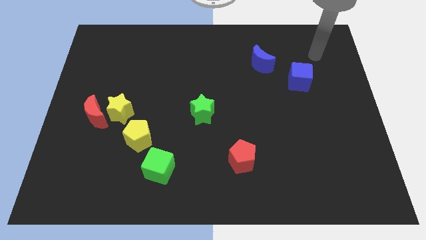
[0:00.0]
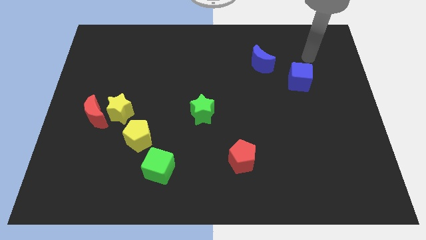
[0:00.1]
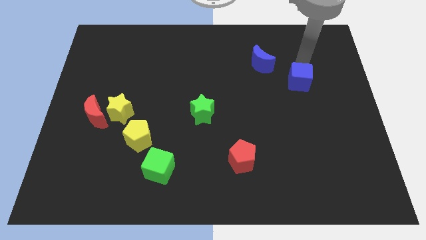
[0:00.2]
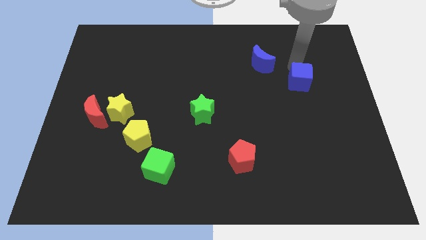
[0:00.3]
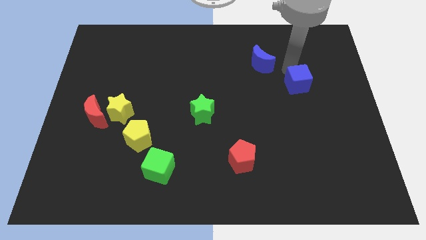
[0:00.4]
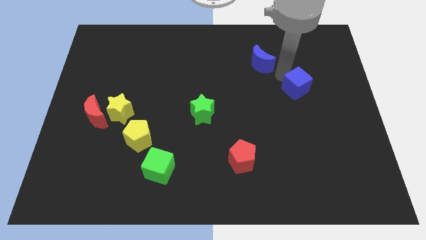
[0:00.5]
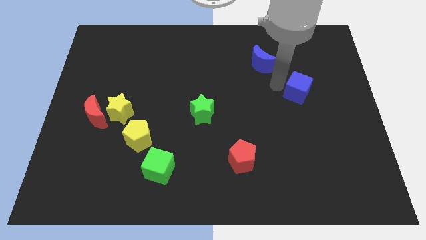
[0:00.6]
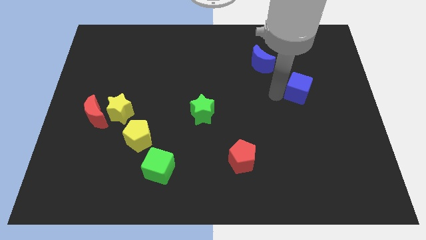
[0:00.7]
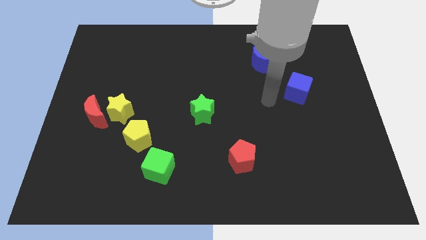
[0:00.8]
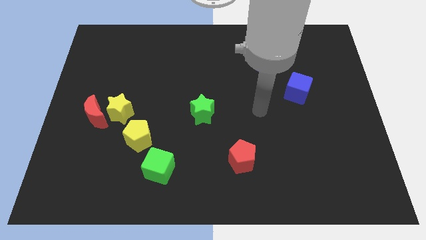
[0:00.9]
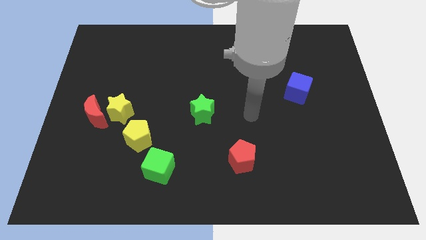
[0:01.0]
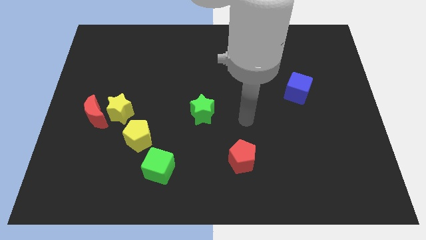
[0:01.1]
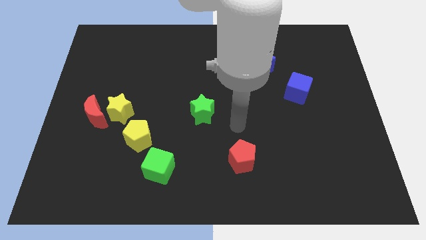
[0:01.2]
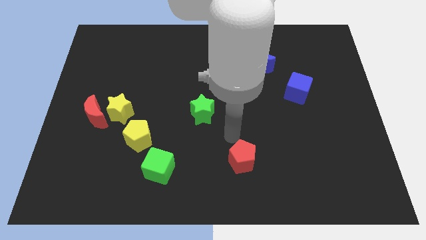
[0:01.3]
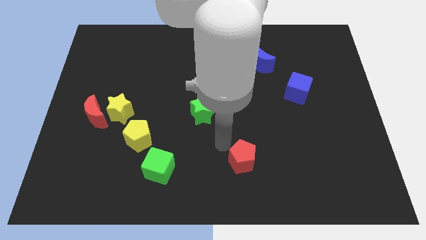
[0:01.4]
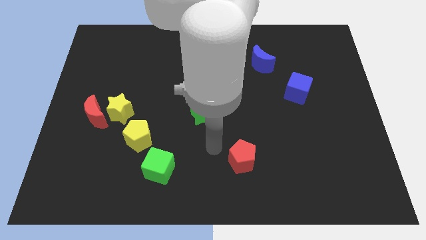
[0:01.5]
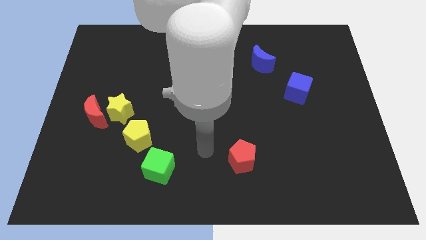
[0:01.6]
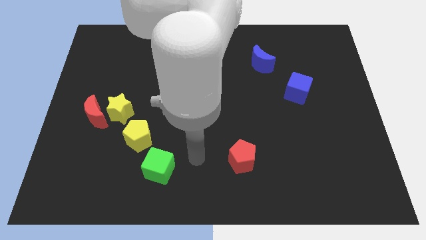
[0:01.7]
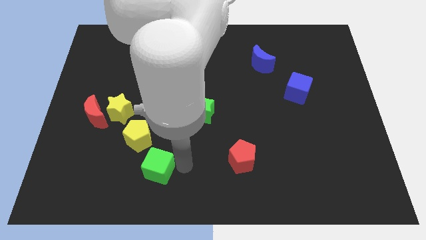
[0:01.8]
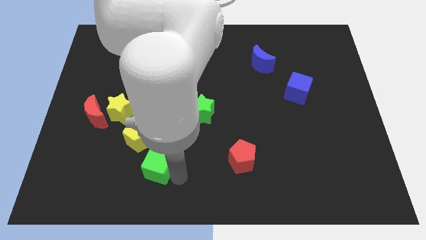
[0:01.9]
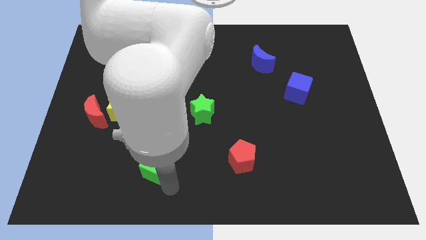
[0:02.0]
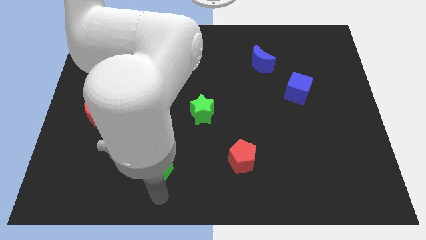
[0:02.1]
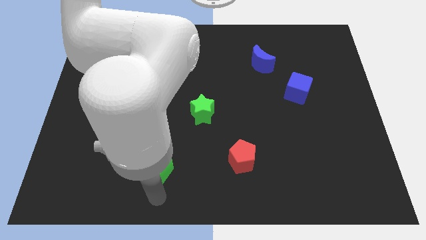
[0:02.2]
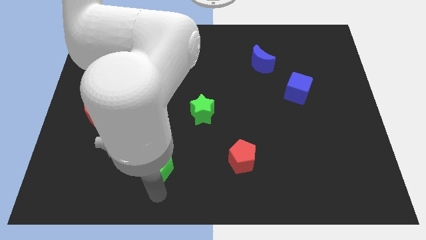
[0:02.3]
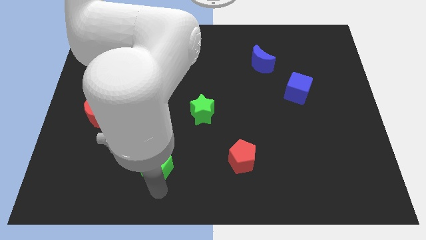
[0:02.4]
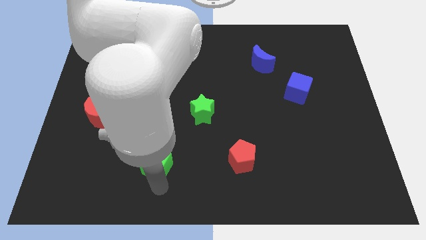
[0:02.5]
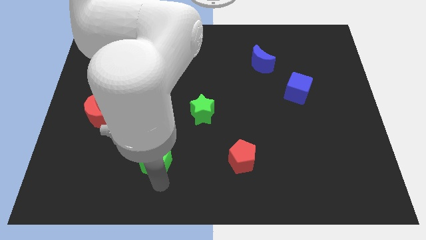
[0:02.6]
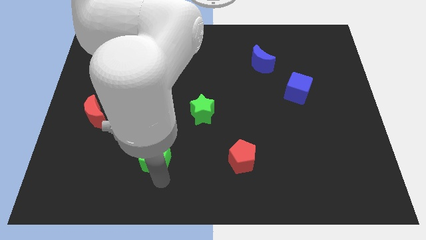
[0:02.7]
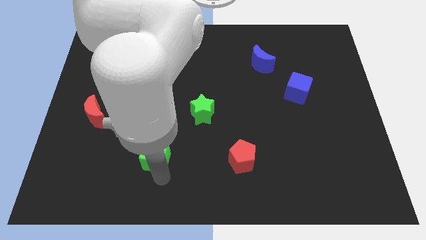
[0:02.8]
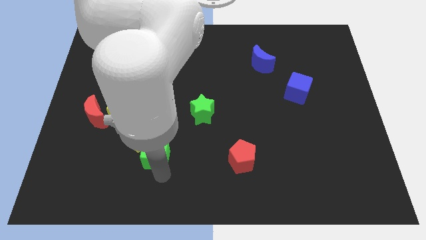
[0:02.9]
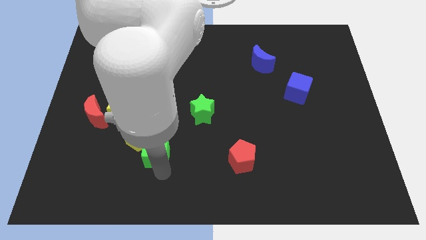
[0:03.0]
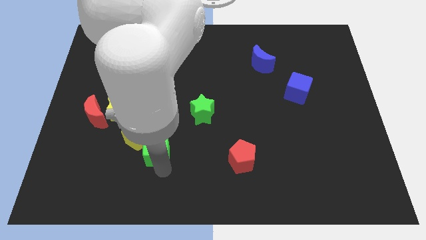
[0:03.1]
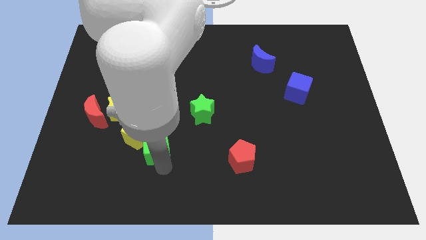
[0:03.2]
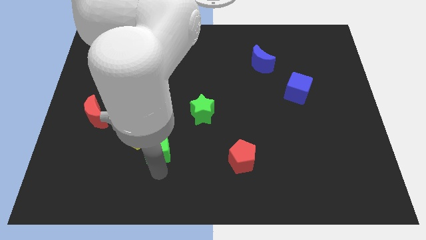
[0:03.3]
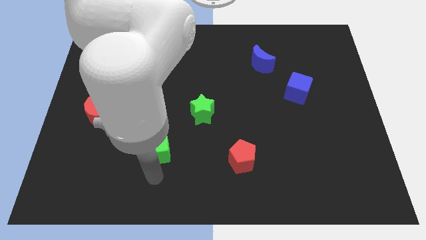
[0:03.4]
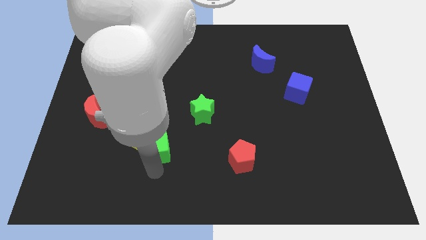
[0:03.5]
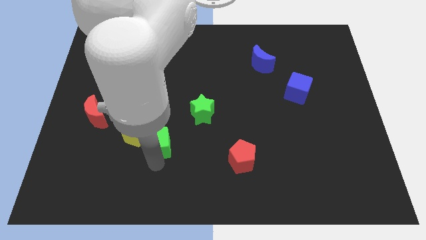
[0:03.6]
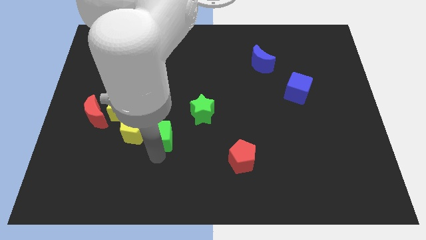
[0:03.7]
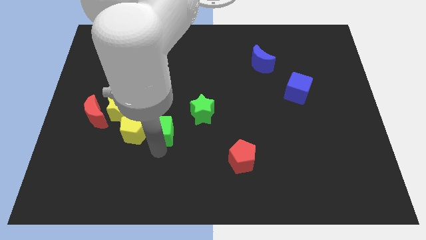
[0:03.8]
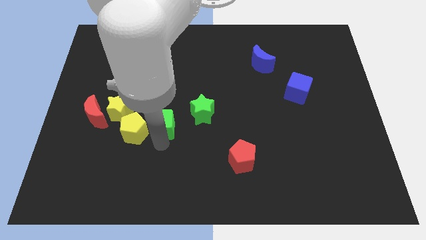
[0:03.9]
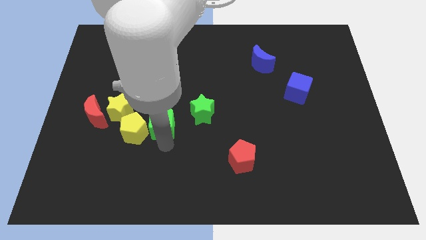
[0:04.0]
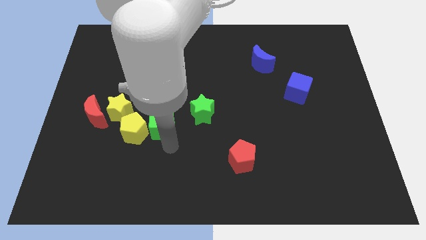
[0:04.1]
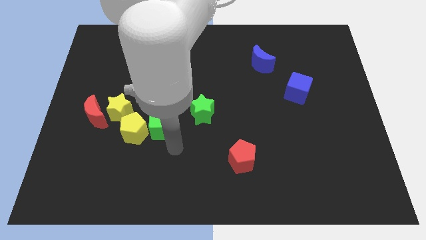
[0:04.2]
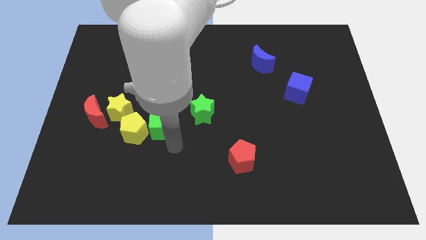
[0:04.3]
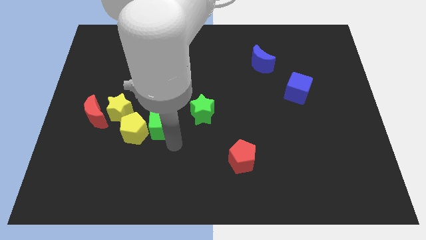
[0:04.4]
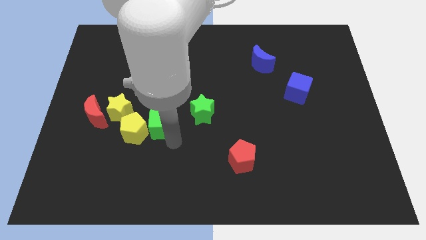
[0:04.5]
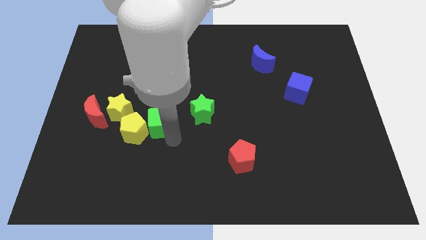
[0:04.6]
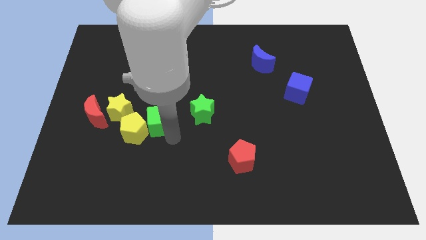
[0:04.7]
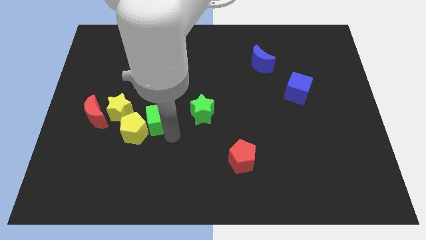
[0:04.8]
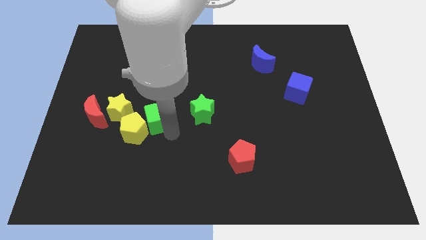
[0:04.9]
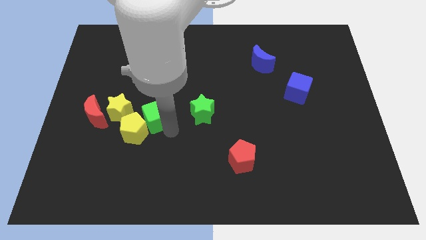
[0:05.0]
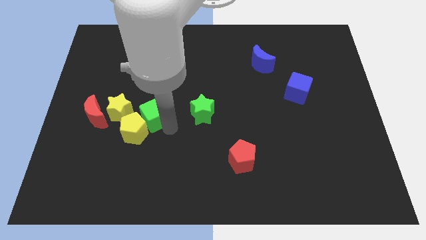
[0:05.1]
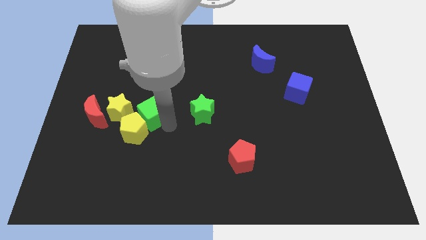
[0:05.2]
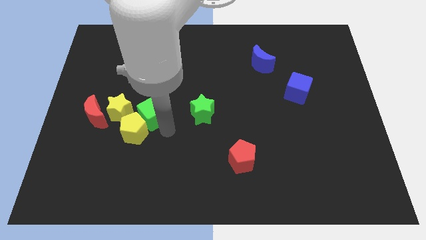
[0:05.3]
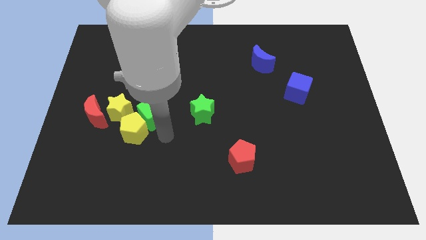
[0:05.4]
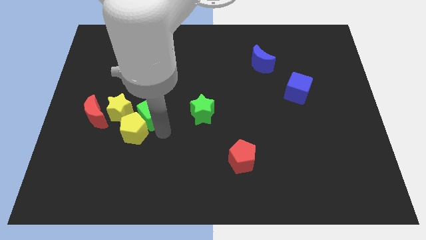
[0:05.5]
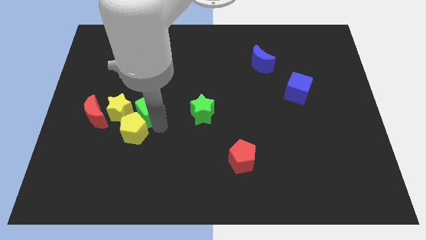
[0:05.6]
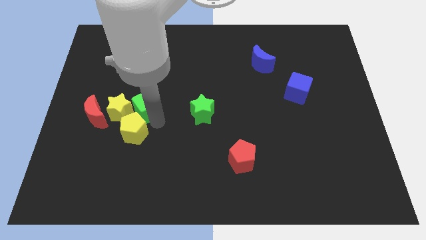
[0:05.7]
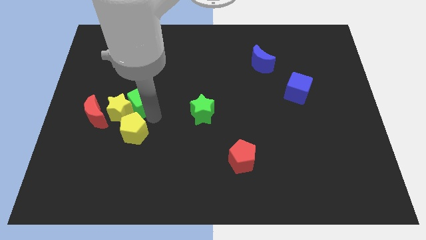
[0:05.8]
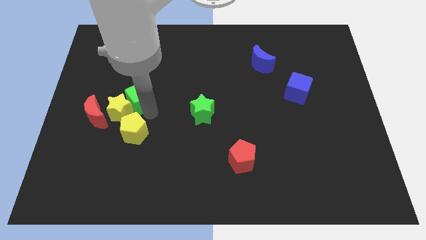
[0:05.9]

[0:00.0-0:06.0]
slide the green cube above the yellow star

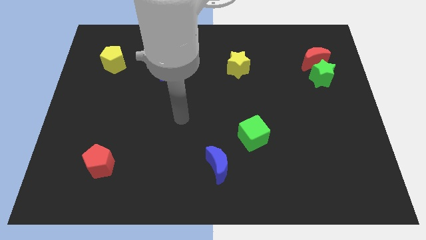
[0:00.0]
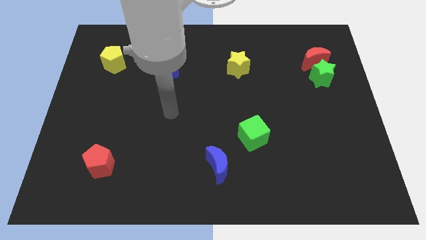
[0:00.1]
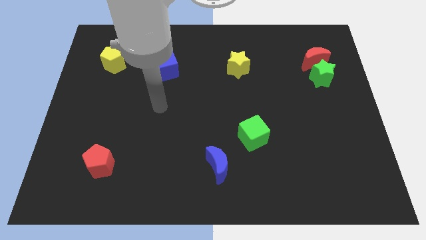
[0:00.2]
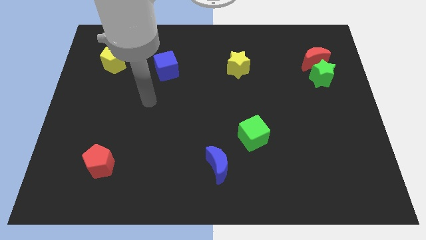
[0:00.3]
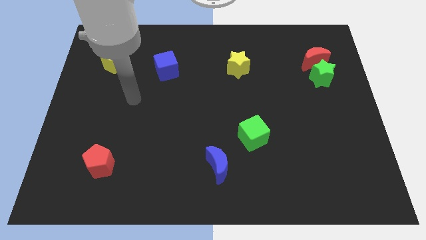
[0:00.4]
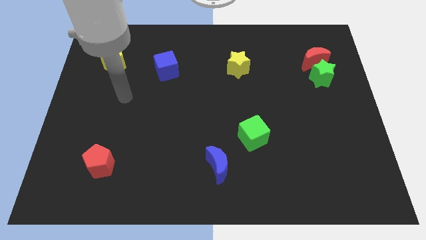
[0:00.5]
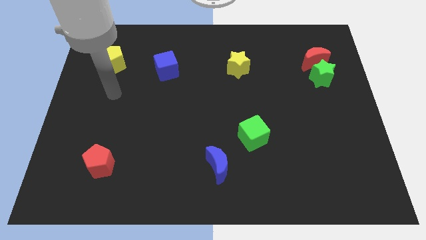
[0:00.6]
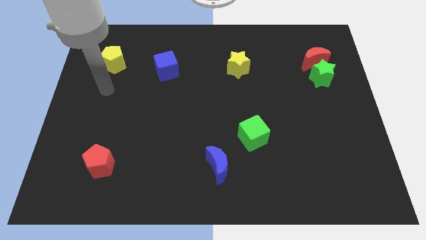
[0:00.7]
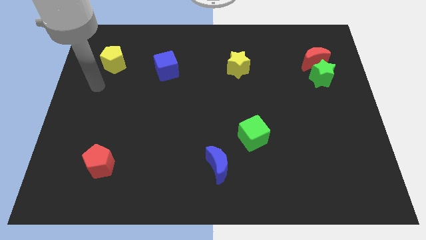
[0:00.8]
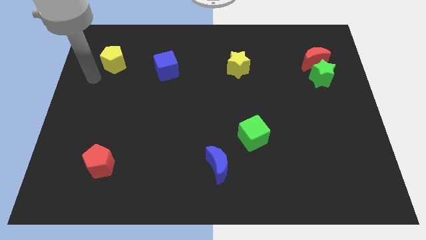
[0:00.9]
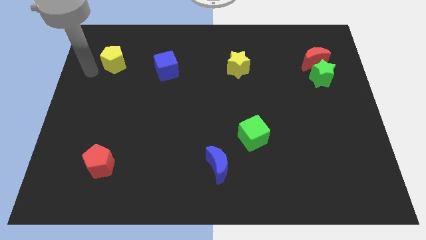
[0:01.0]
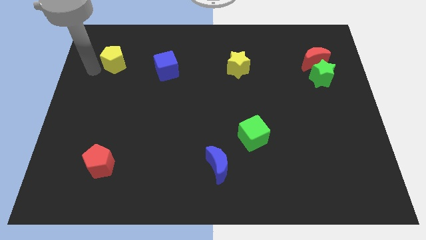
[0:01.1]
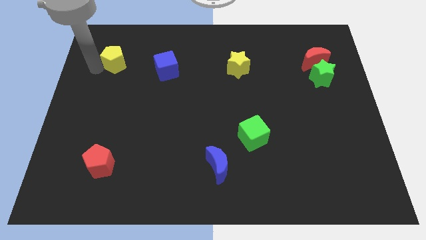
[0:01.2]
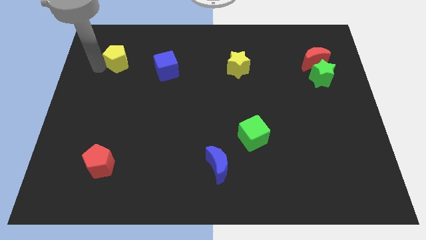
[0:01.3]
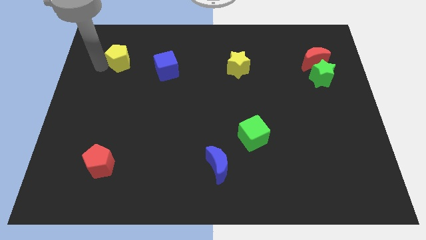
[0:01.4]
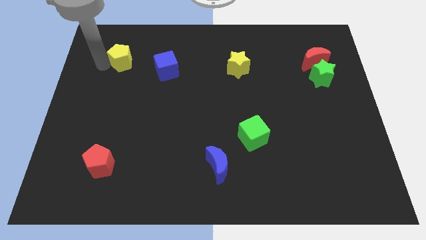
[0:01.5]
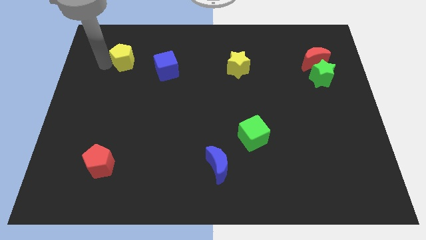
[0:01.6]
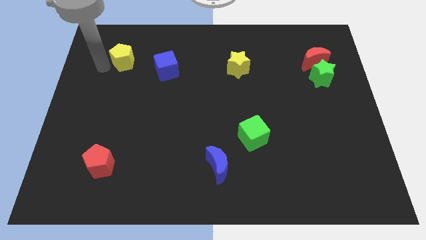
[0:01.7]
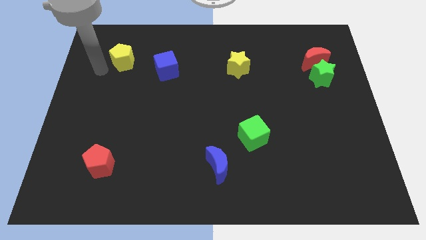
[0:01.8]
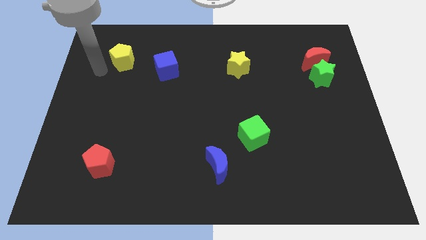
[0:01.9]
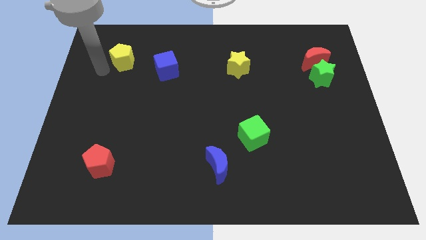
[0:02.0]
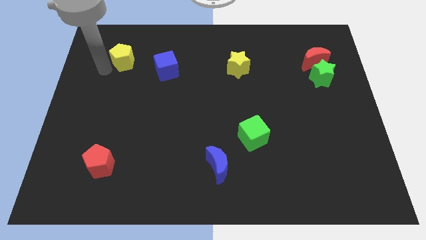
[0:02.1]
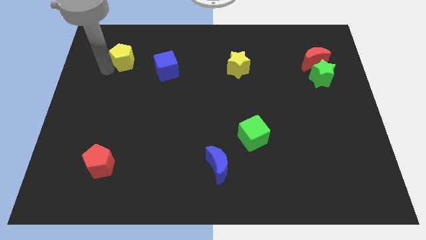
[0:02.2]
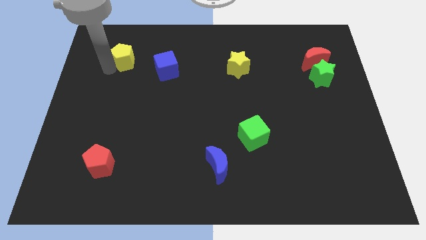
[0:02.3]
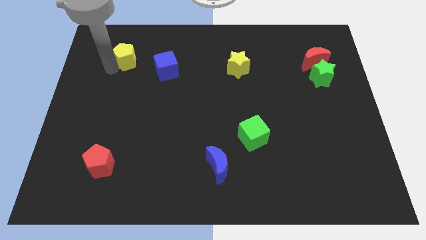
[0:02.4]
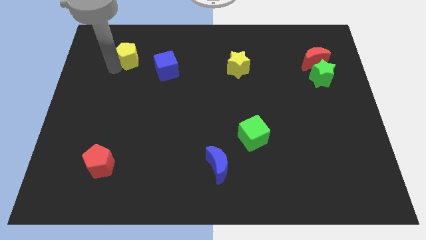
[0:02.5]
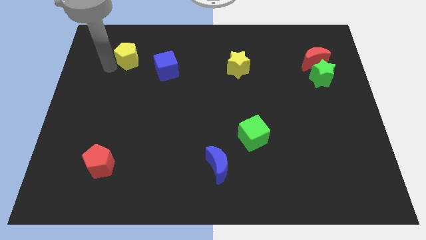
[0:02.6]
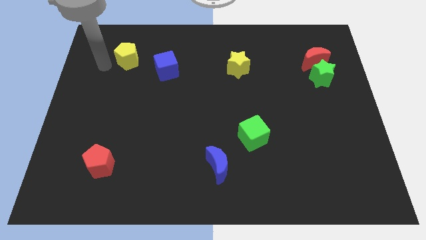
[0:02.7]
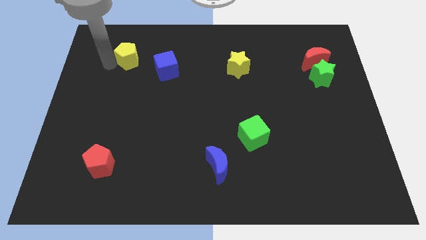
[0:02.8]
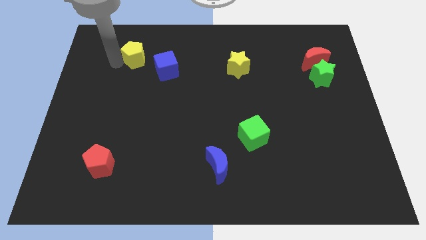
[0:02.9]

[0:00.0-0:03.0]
slide the yellow pentagon diagonally up and to the left of the blue cube
